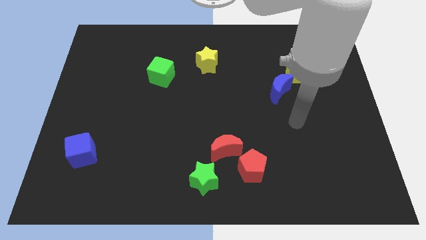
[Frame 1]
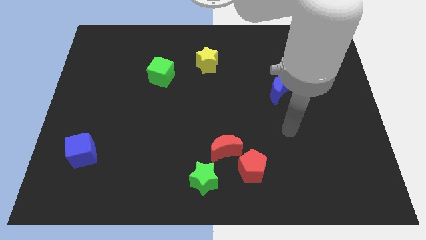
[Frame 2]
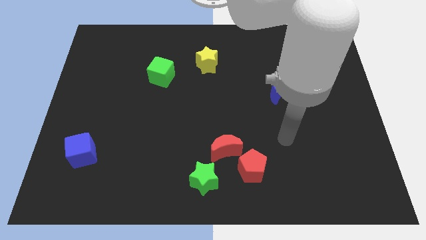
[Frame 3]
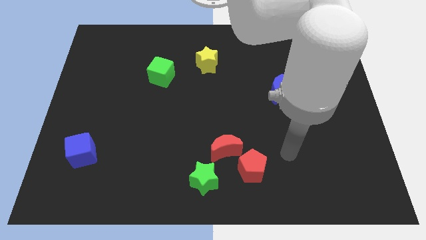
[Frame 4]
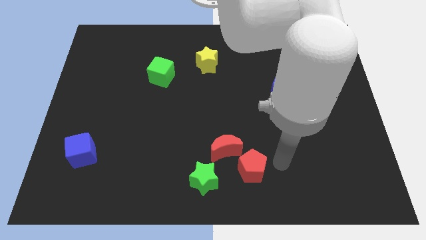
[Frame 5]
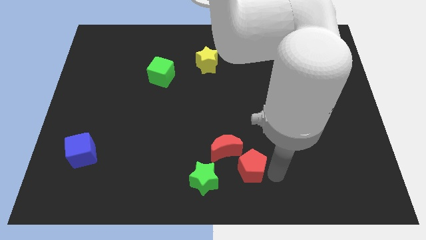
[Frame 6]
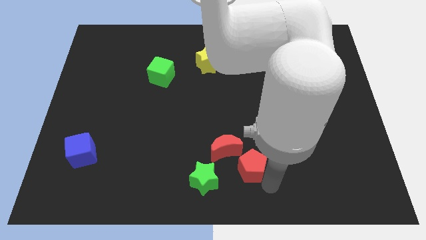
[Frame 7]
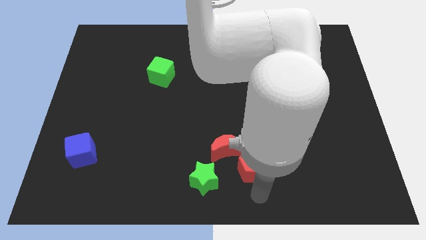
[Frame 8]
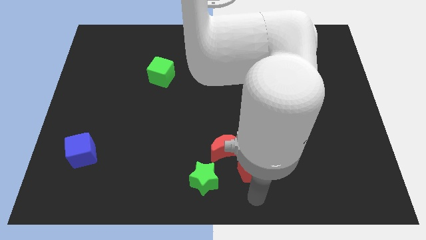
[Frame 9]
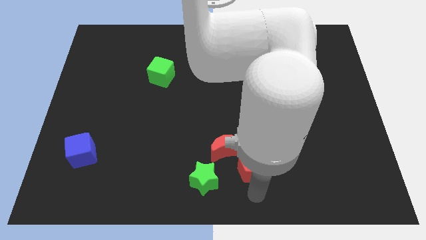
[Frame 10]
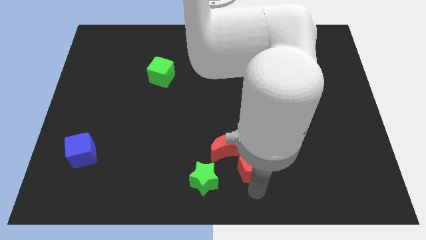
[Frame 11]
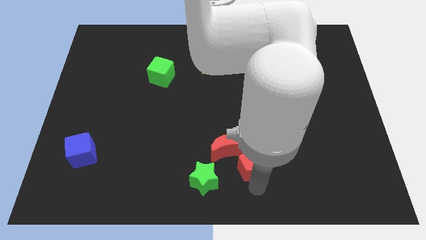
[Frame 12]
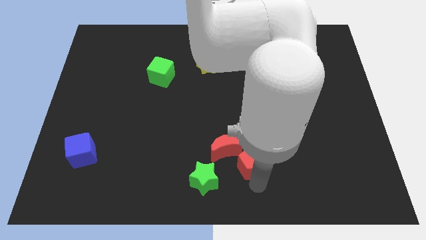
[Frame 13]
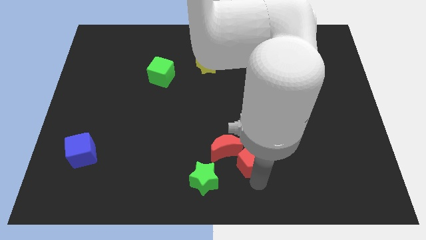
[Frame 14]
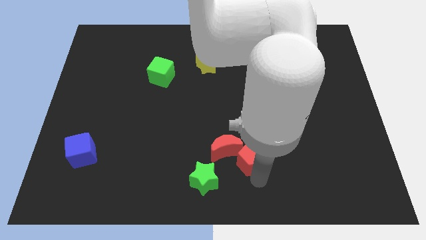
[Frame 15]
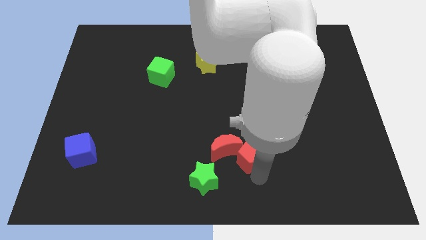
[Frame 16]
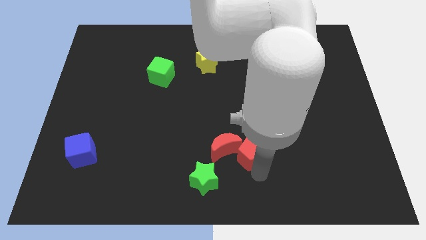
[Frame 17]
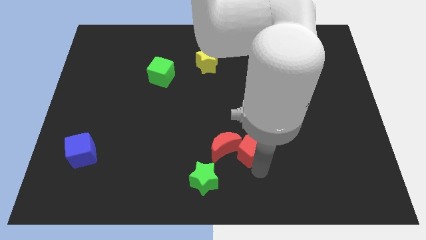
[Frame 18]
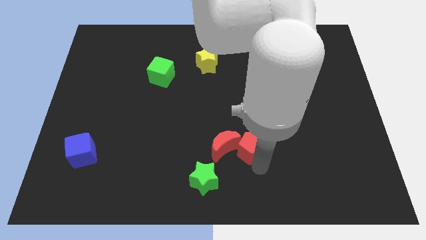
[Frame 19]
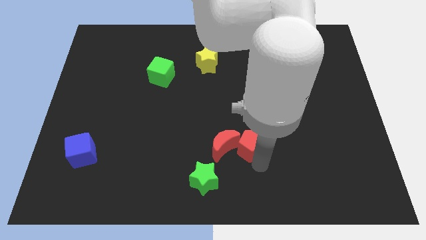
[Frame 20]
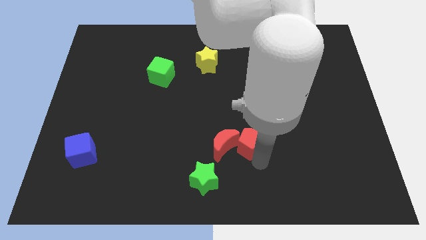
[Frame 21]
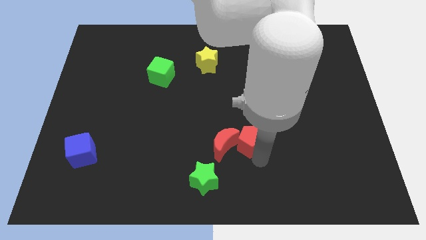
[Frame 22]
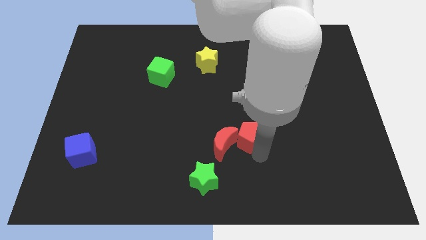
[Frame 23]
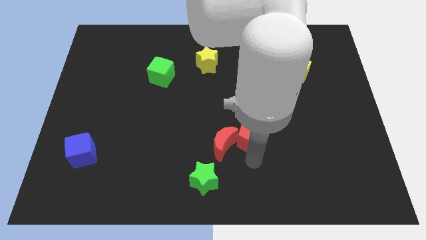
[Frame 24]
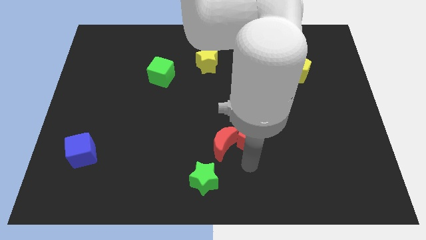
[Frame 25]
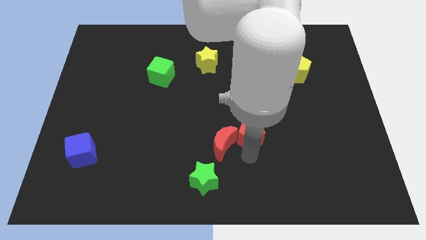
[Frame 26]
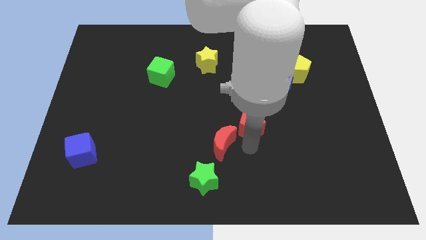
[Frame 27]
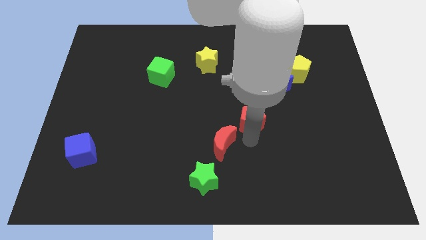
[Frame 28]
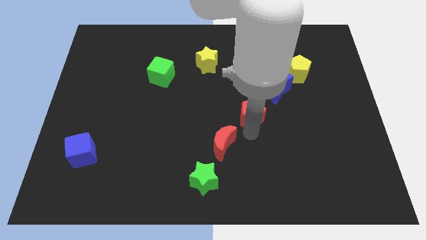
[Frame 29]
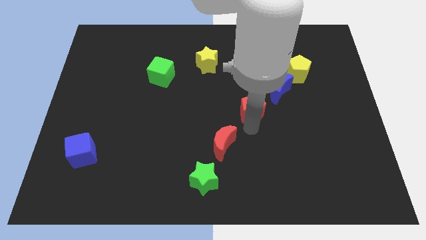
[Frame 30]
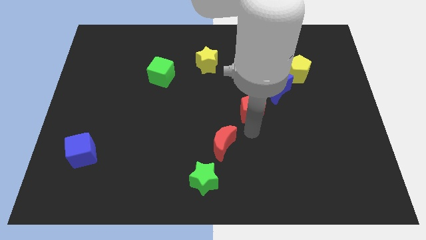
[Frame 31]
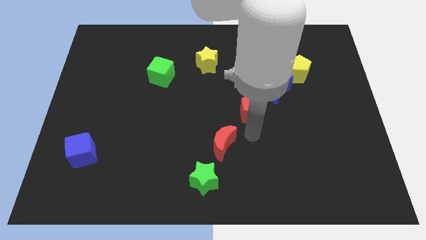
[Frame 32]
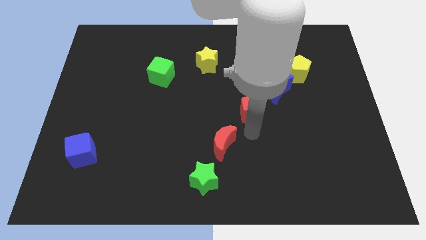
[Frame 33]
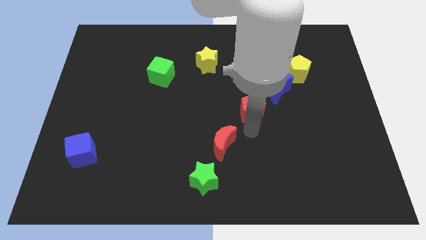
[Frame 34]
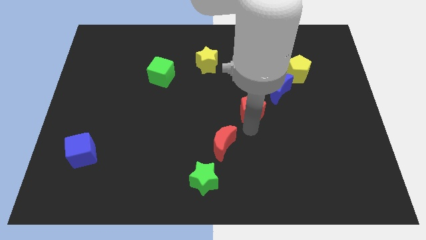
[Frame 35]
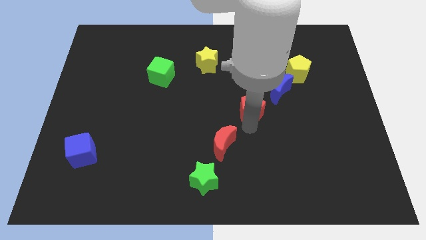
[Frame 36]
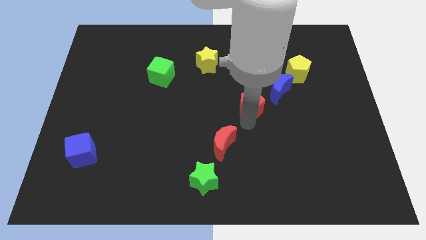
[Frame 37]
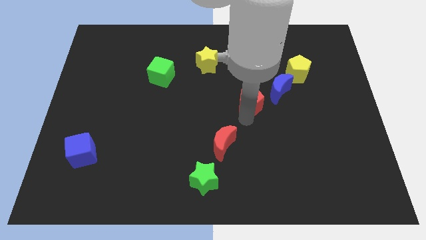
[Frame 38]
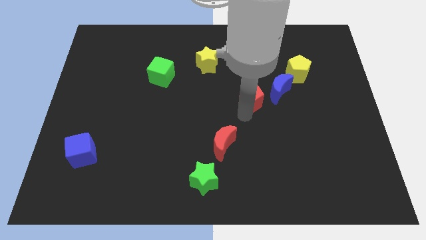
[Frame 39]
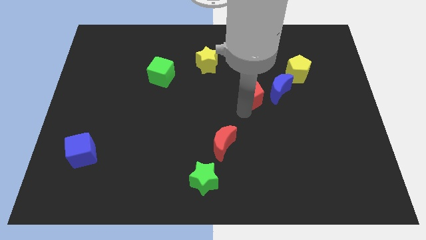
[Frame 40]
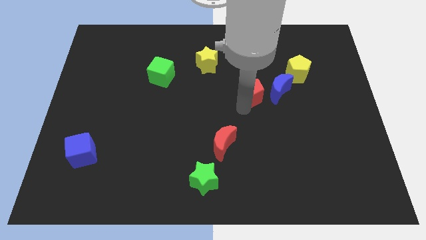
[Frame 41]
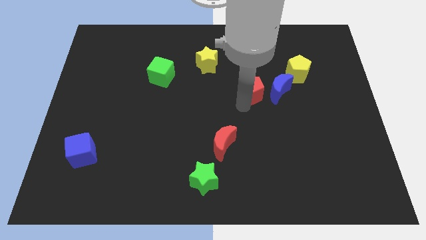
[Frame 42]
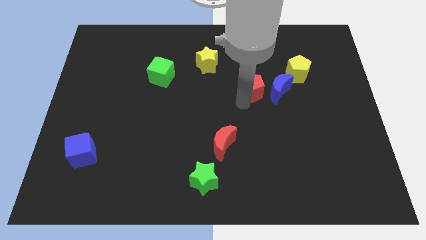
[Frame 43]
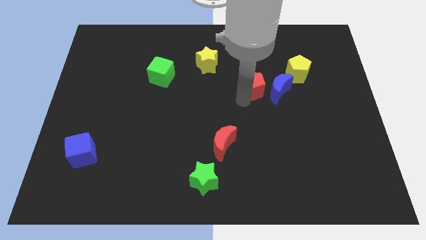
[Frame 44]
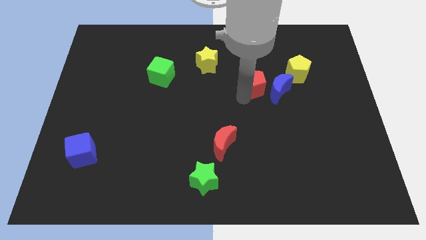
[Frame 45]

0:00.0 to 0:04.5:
push the red pentagon to the left of the yellow pentagon

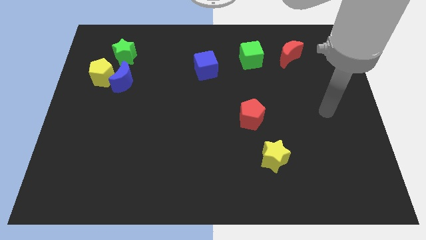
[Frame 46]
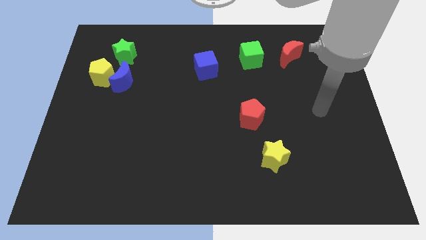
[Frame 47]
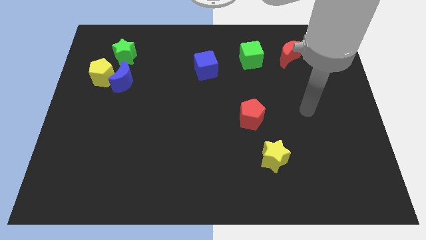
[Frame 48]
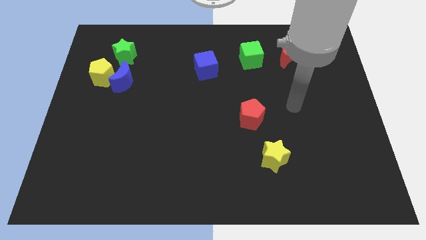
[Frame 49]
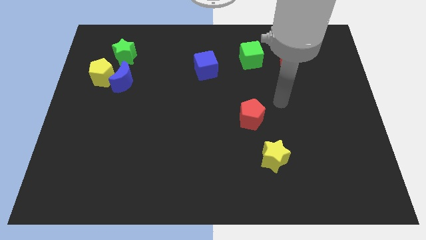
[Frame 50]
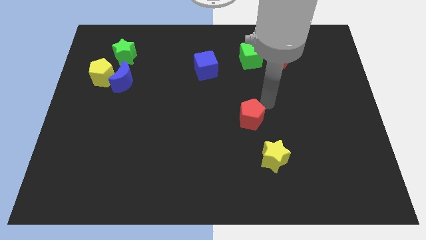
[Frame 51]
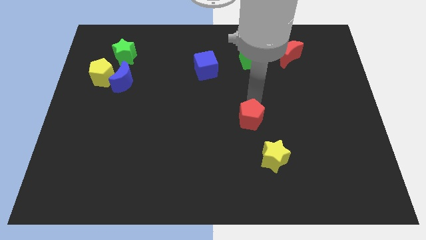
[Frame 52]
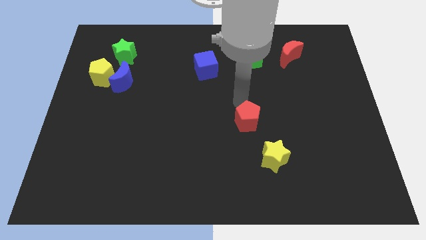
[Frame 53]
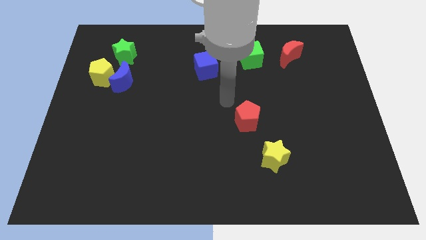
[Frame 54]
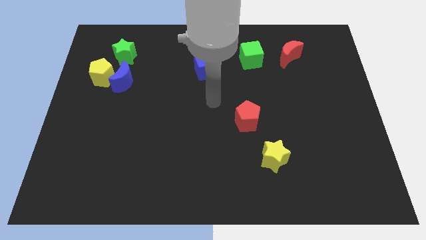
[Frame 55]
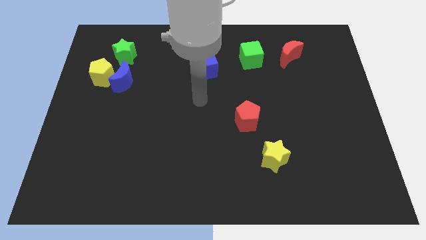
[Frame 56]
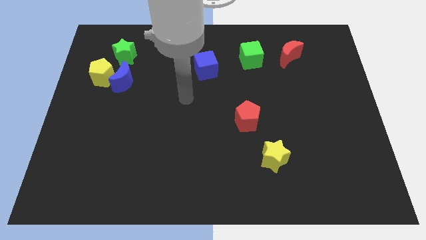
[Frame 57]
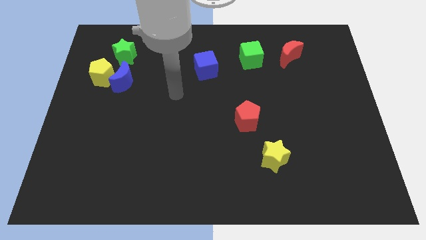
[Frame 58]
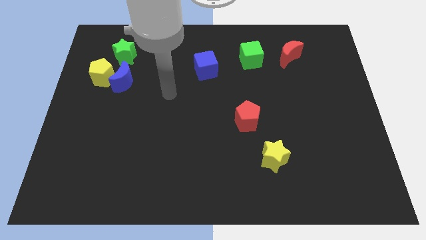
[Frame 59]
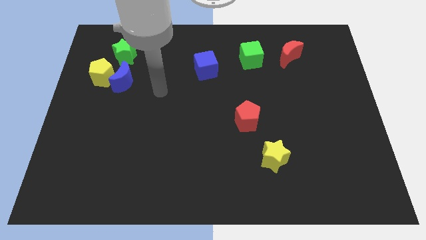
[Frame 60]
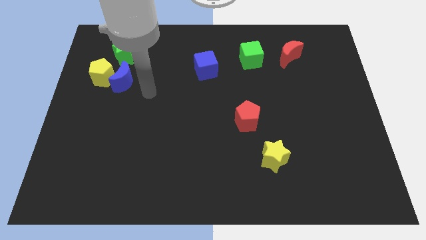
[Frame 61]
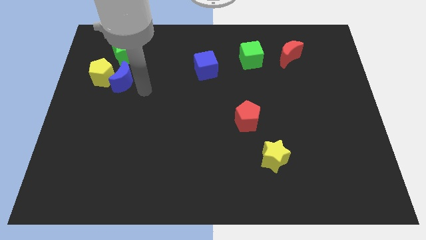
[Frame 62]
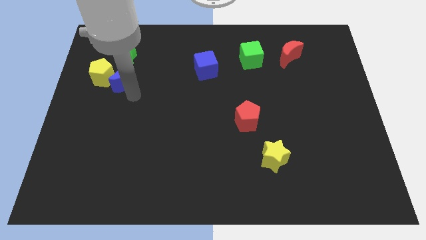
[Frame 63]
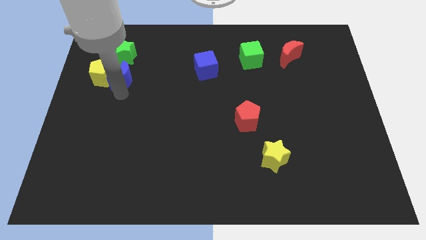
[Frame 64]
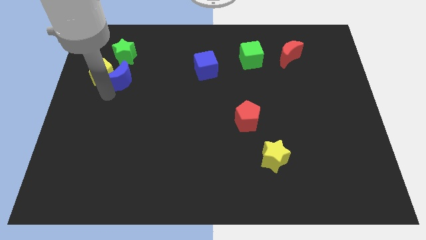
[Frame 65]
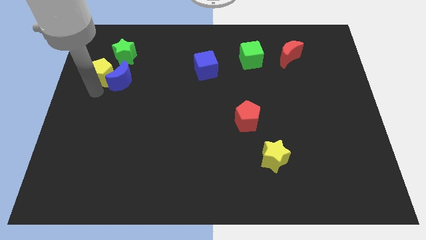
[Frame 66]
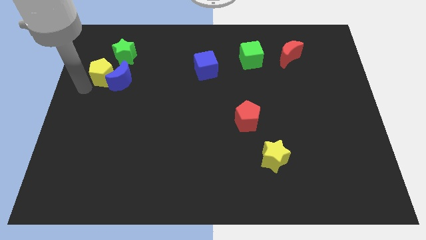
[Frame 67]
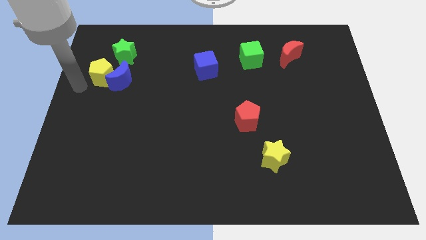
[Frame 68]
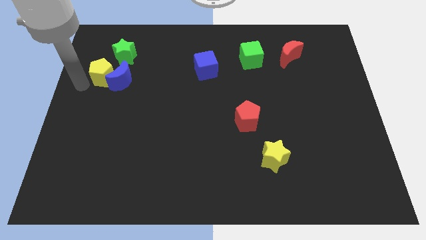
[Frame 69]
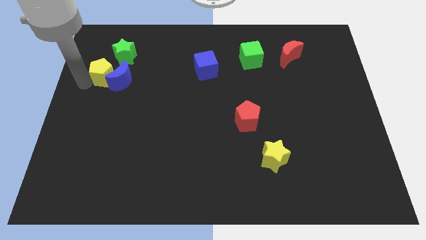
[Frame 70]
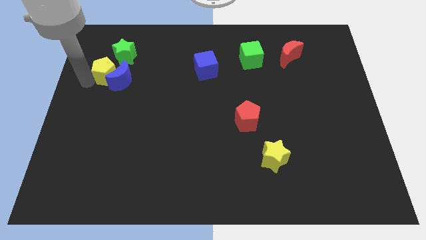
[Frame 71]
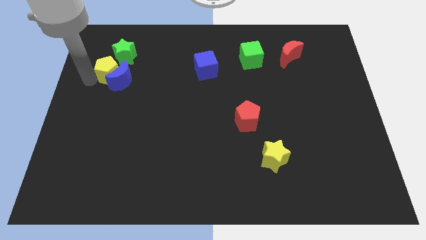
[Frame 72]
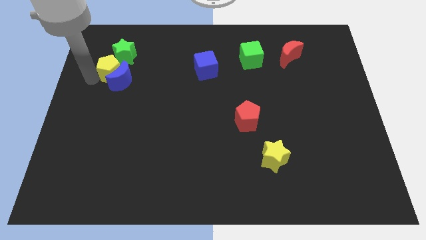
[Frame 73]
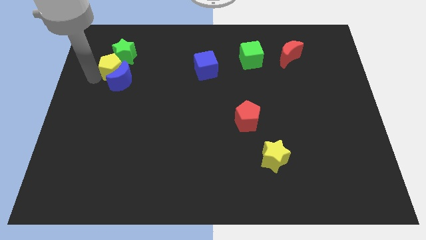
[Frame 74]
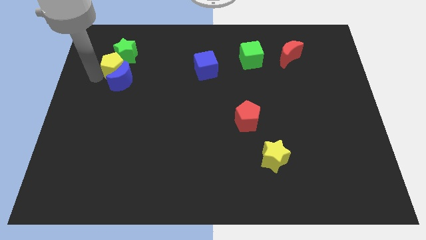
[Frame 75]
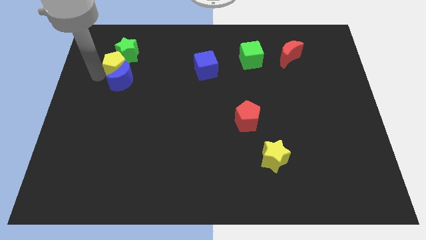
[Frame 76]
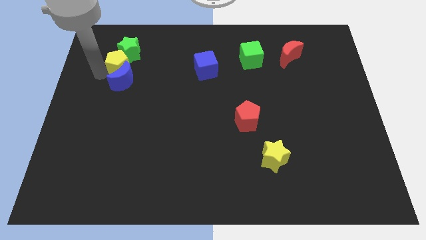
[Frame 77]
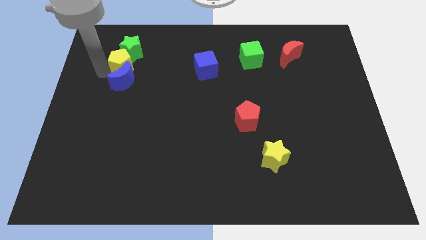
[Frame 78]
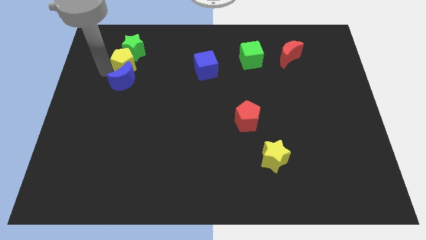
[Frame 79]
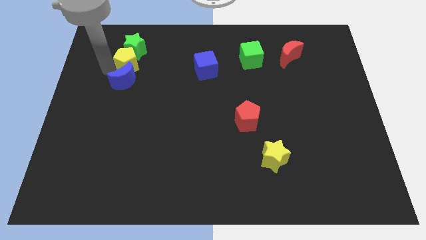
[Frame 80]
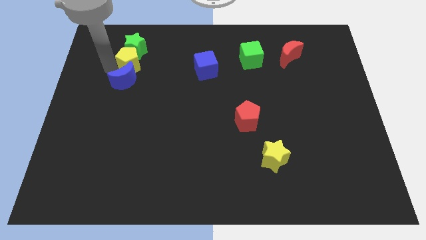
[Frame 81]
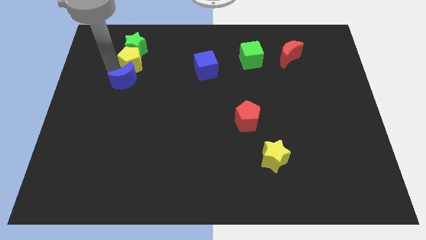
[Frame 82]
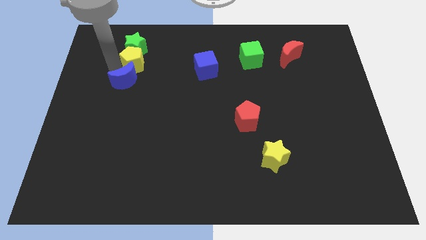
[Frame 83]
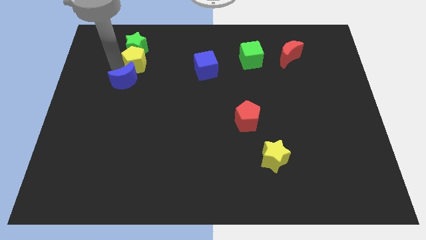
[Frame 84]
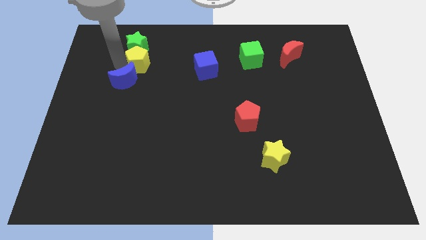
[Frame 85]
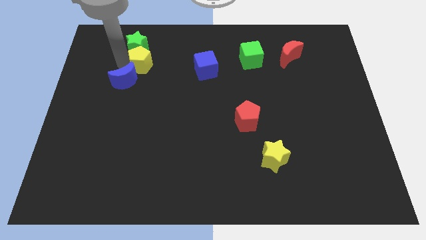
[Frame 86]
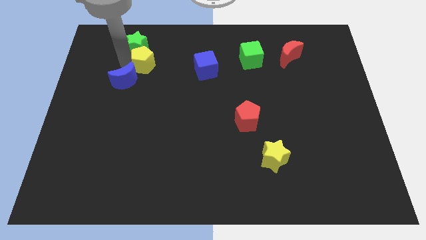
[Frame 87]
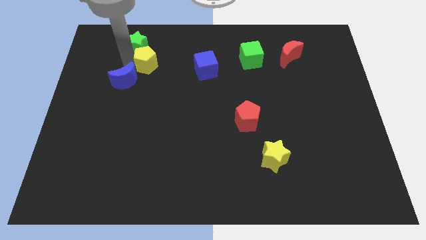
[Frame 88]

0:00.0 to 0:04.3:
slide the yellow pentagon just left of the blue cube
